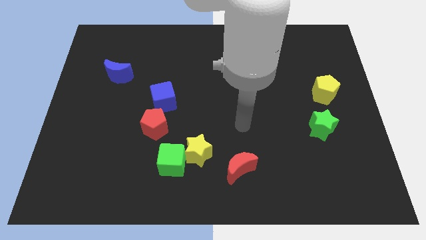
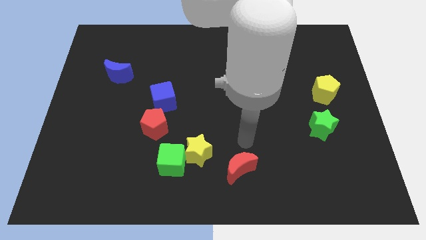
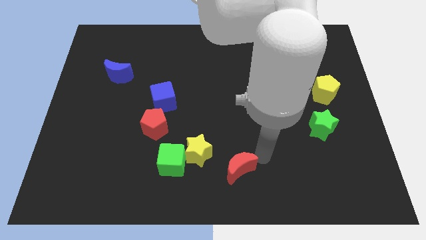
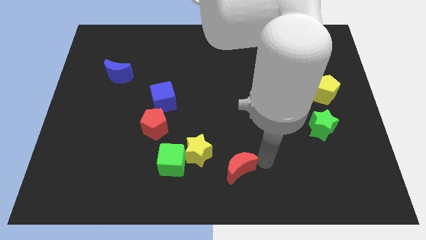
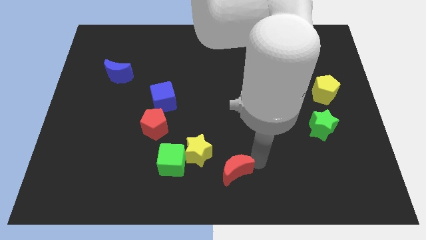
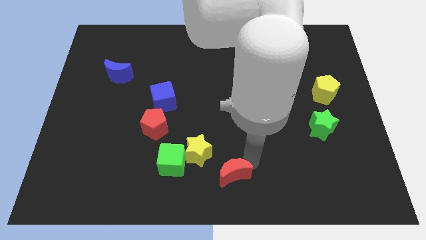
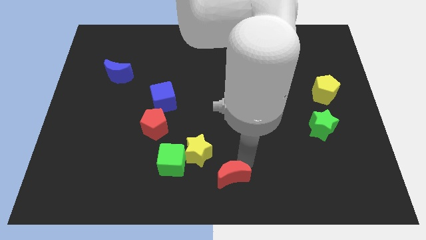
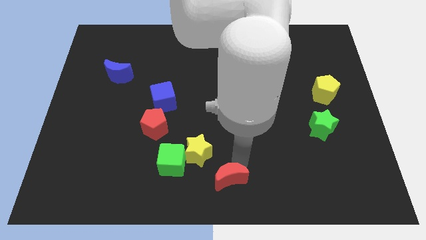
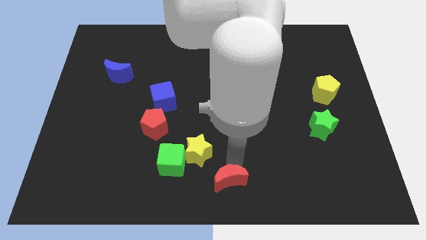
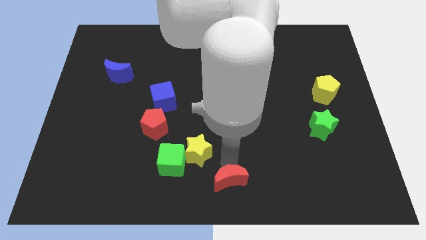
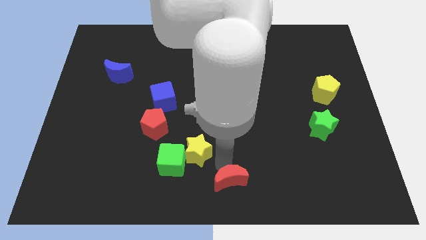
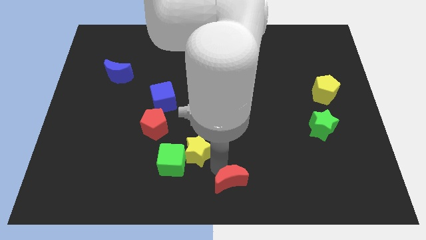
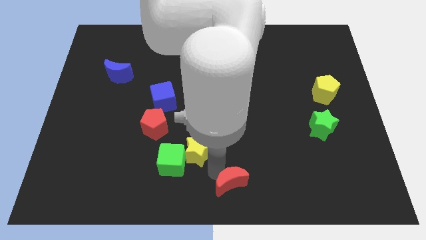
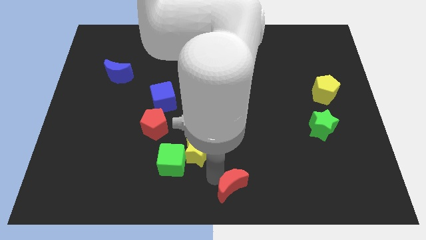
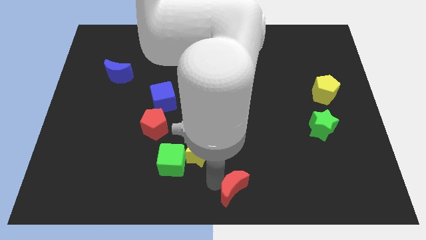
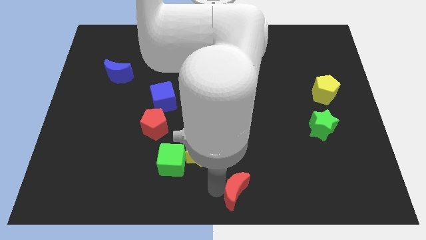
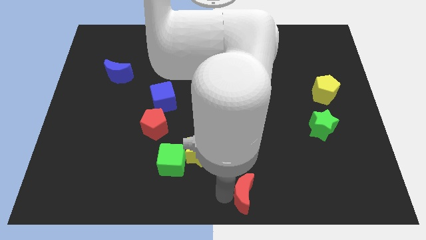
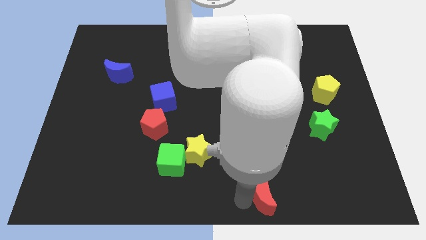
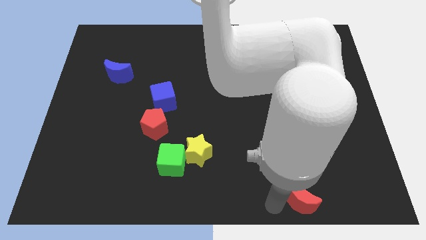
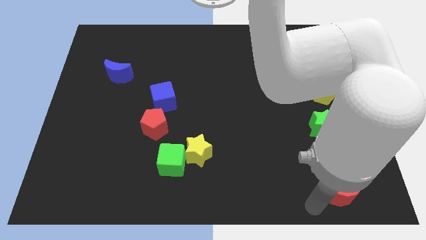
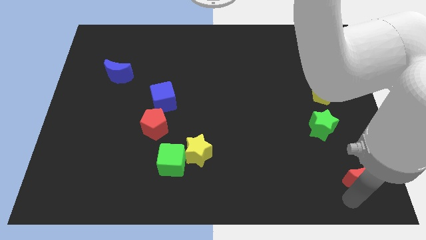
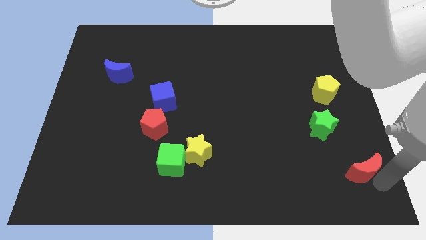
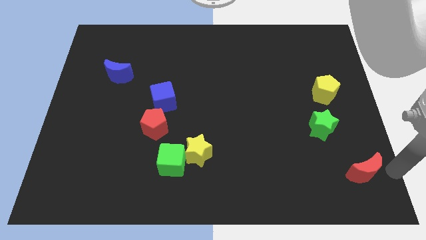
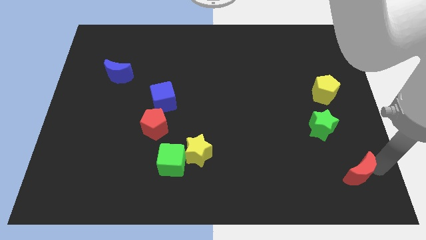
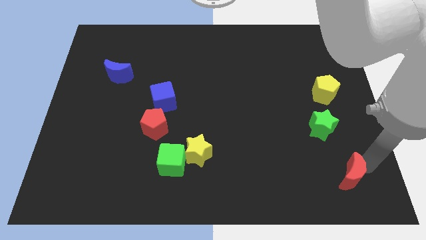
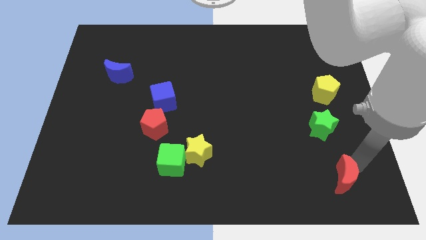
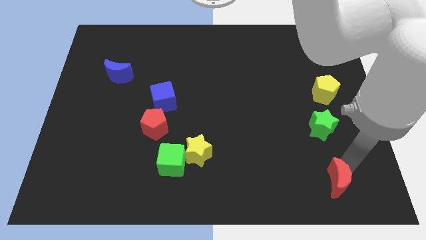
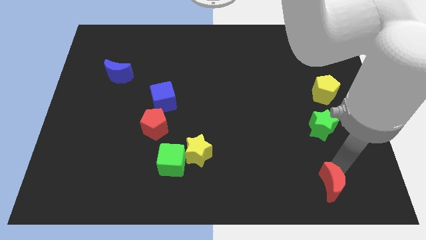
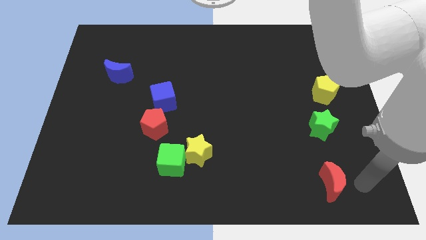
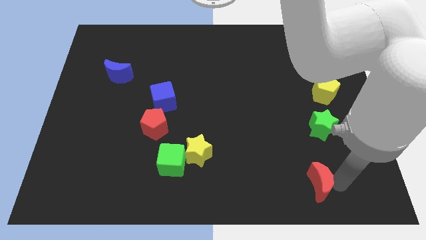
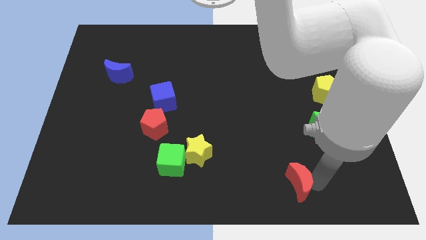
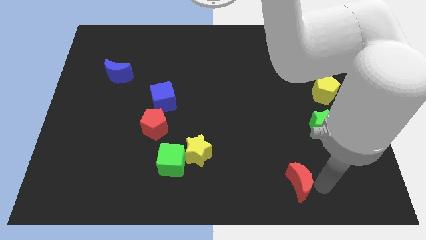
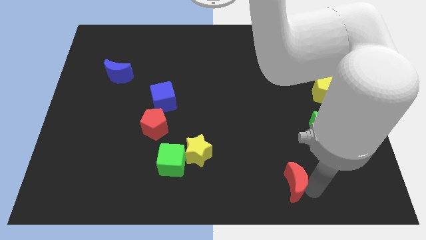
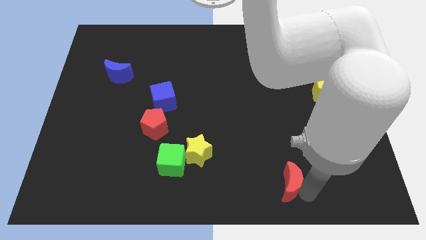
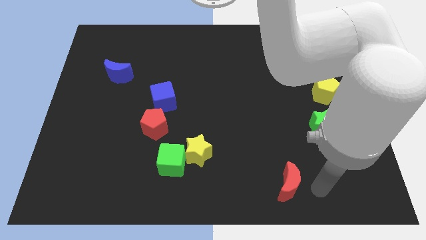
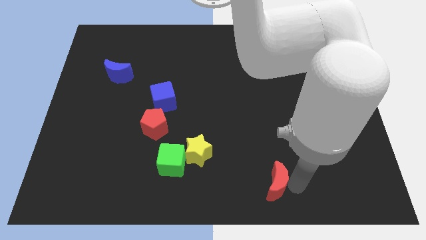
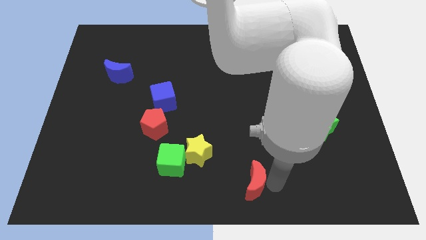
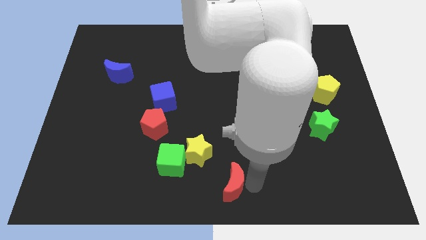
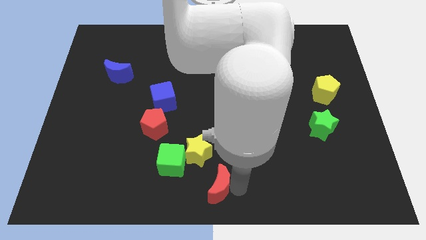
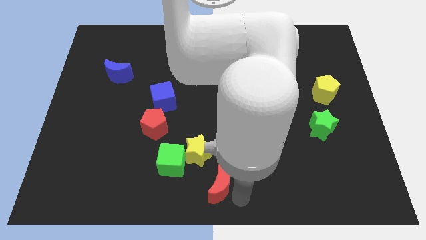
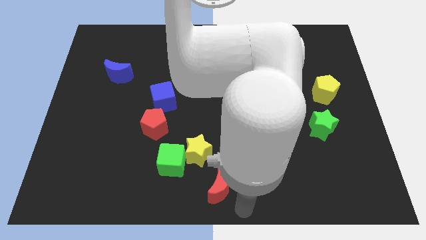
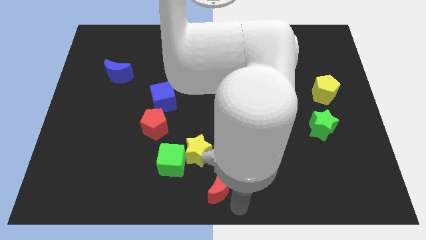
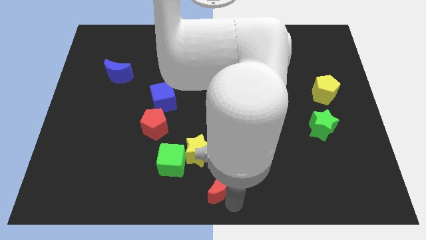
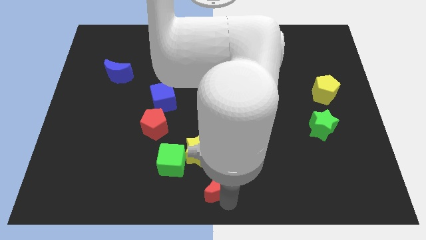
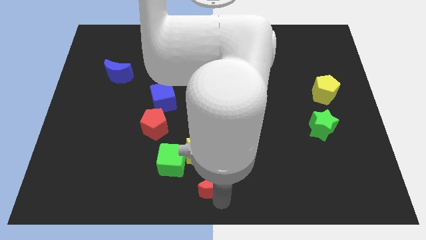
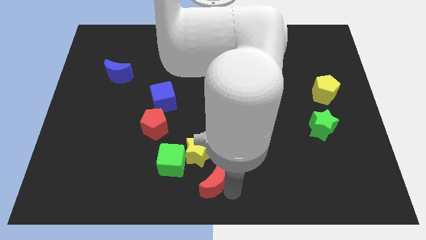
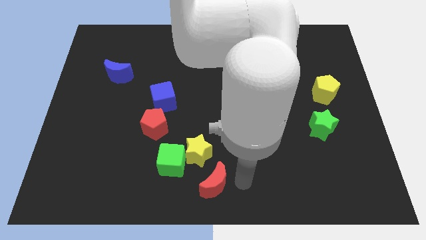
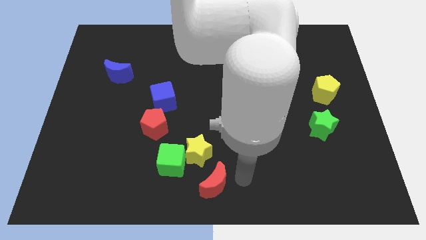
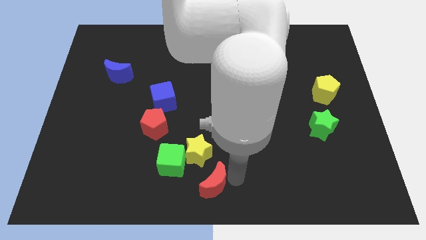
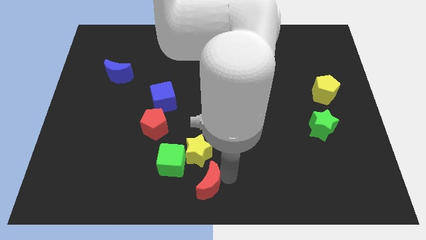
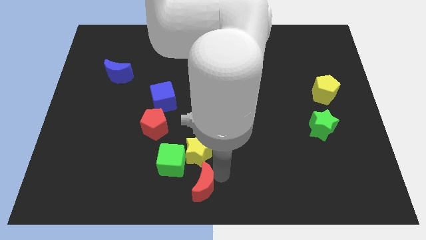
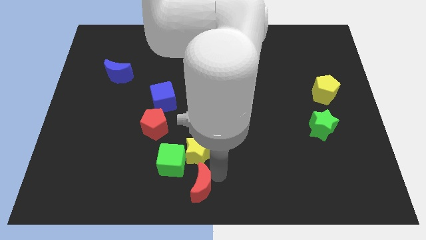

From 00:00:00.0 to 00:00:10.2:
slide the red moon a bit to the left

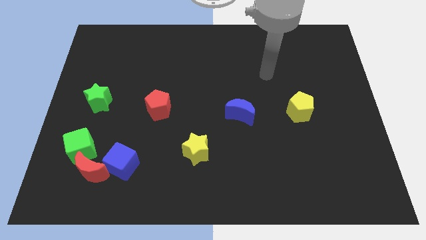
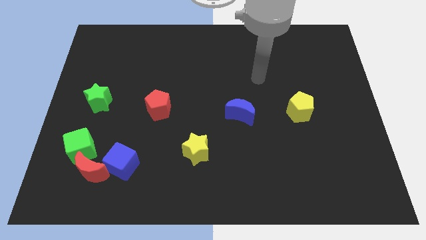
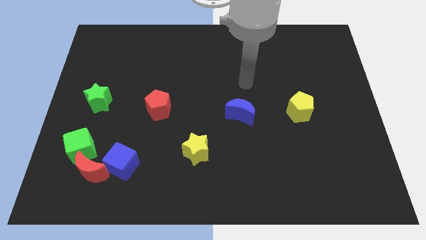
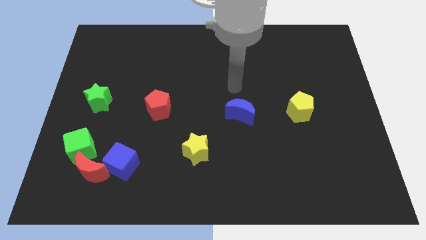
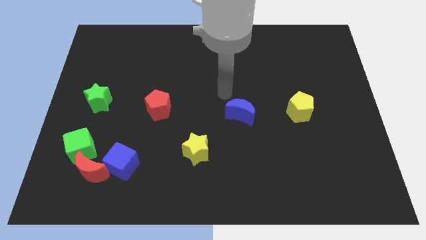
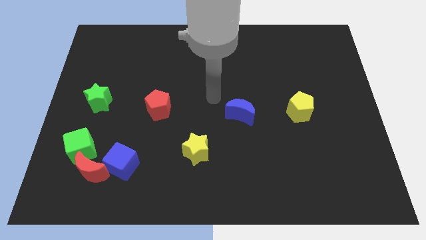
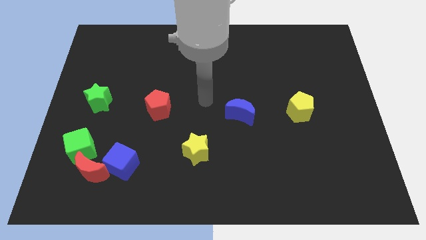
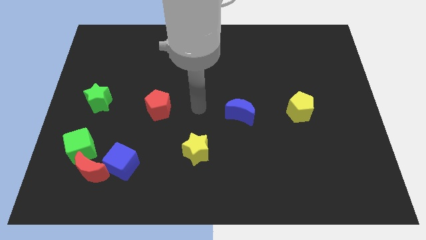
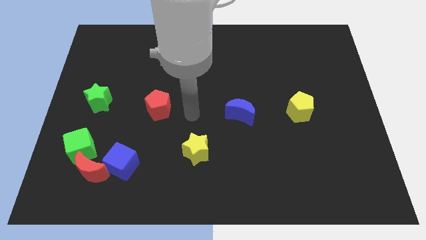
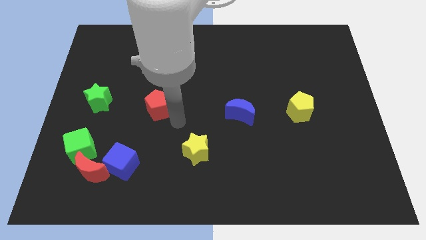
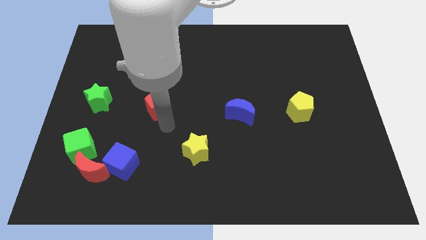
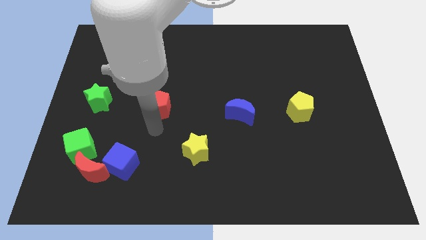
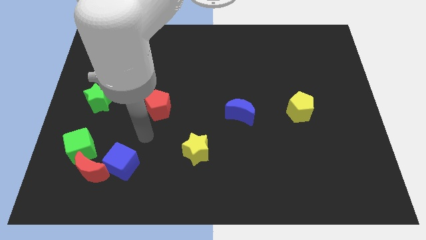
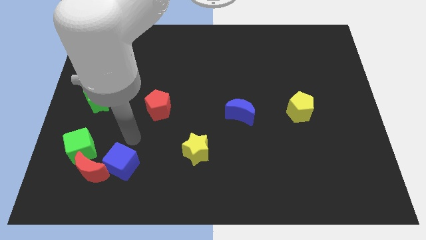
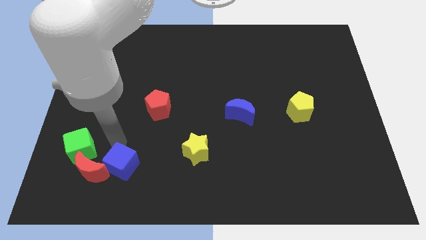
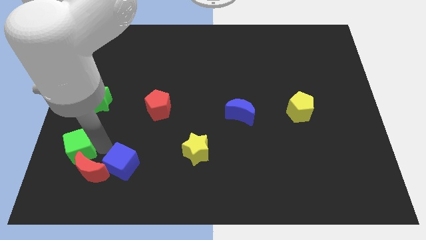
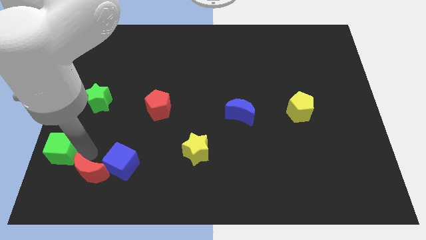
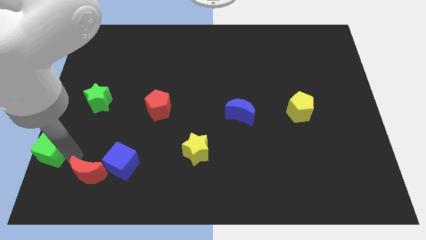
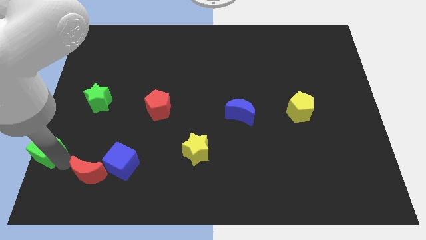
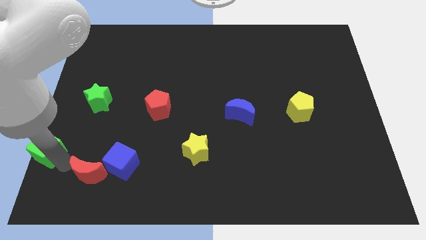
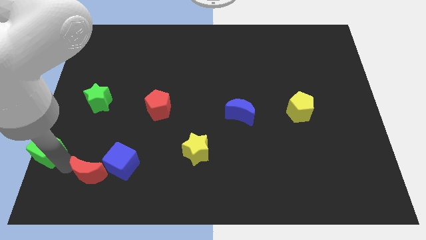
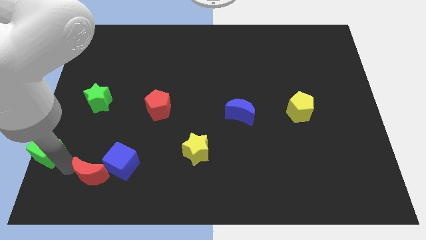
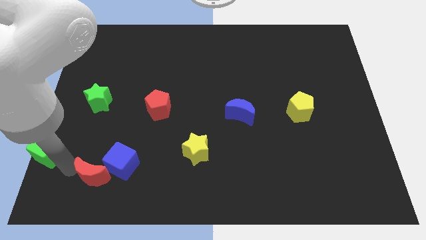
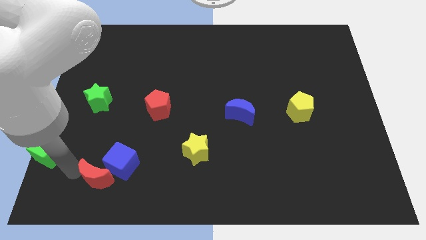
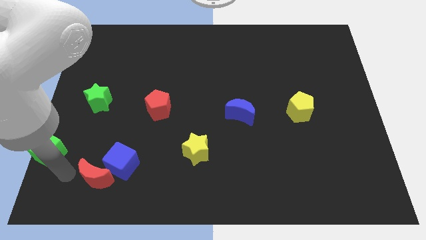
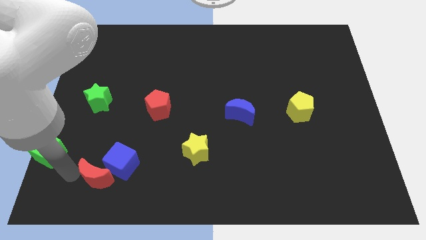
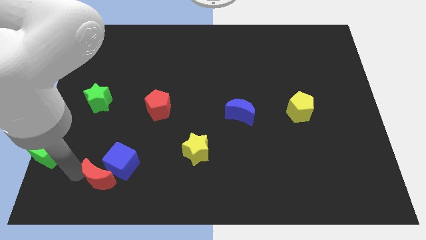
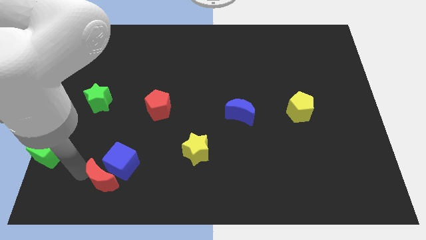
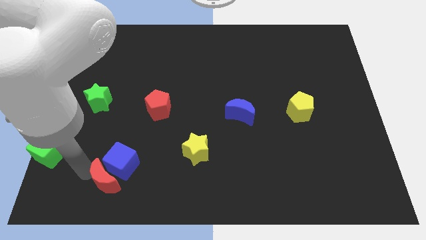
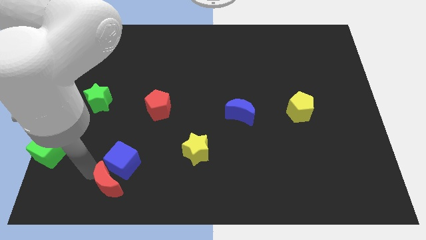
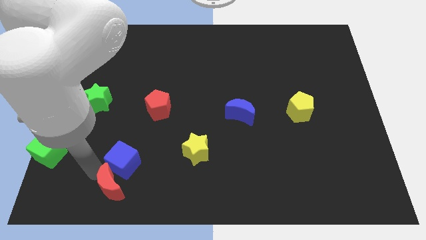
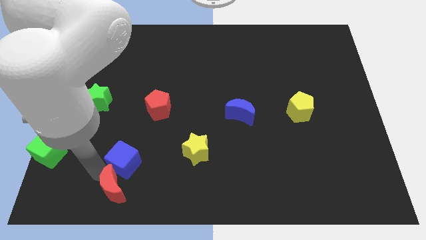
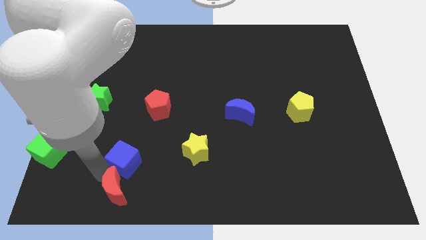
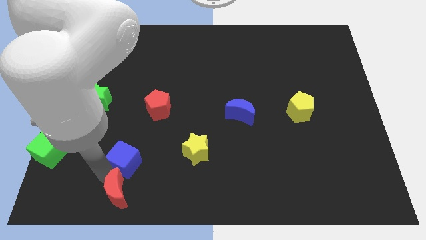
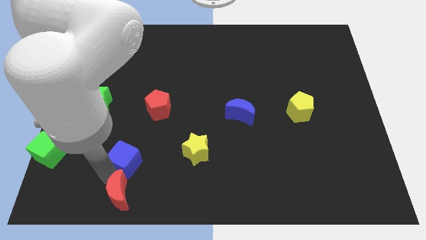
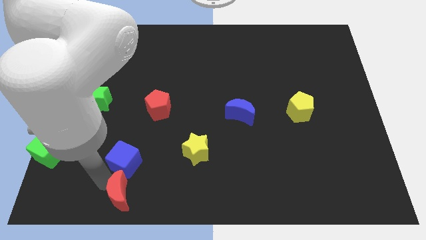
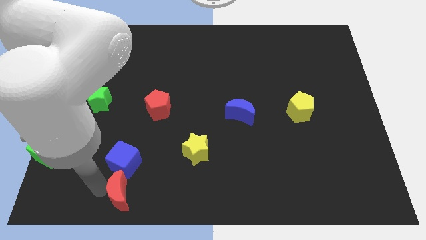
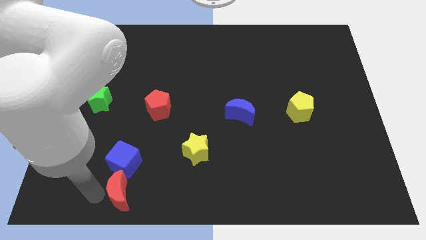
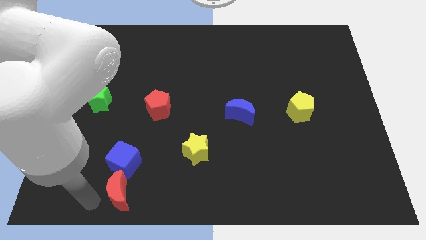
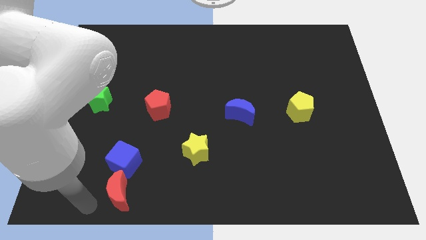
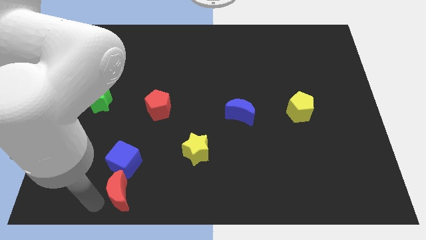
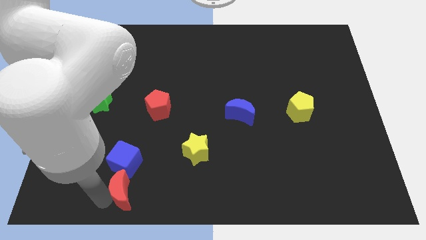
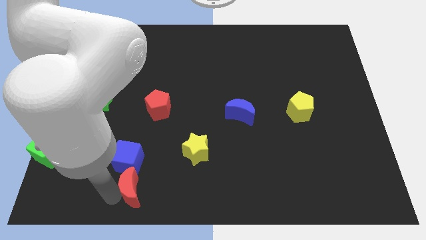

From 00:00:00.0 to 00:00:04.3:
slightly slide the red moon right
